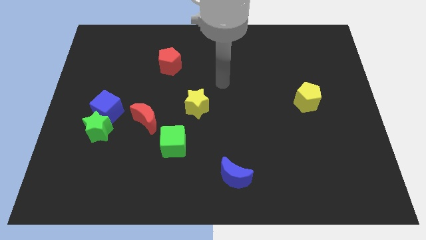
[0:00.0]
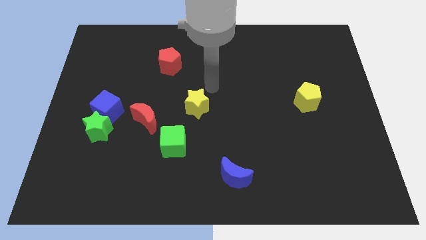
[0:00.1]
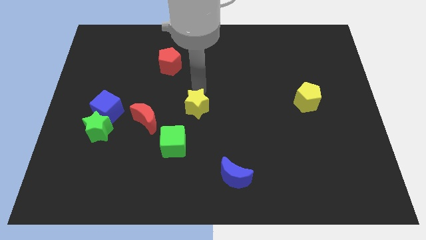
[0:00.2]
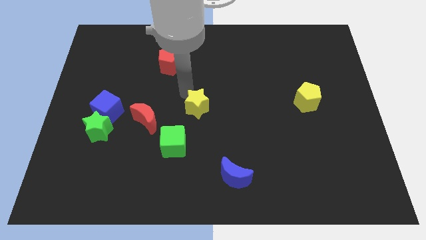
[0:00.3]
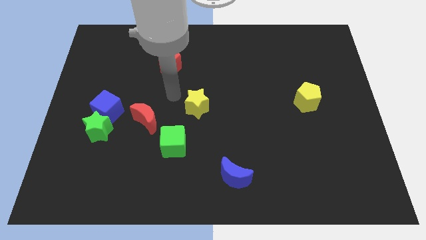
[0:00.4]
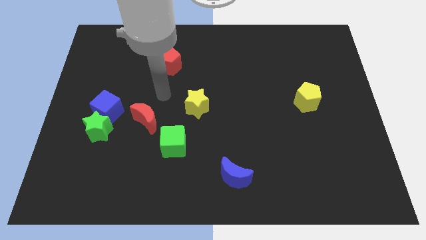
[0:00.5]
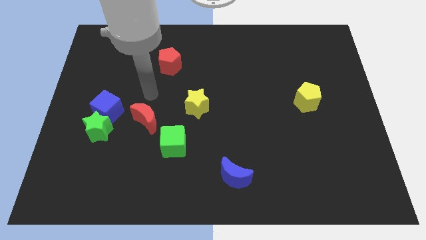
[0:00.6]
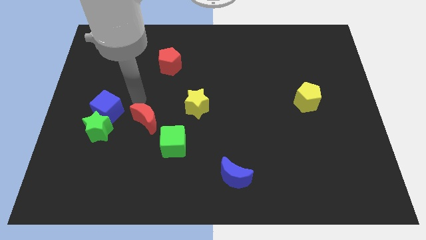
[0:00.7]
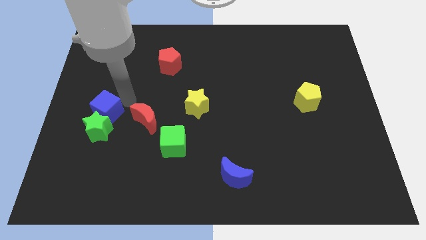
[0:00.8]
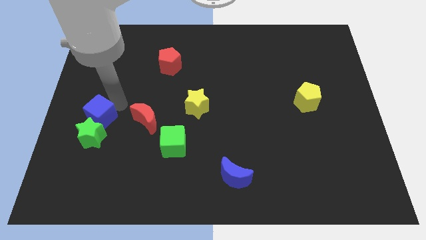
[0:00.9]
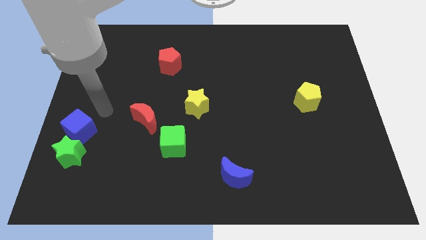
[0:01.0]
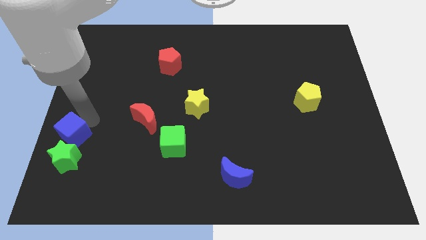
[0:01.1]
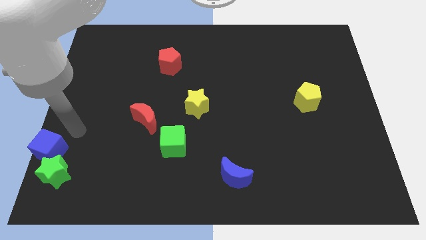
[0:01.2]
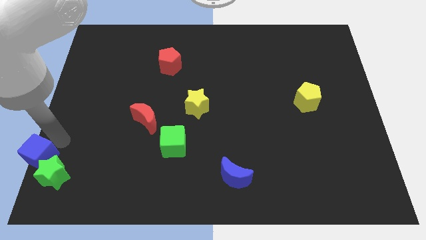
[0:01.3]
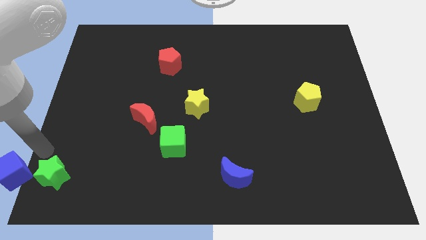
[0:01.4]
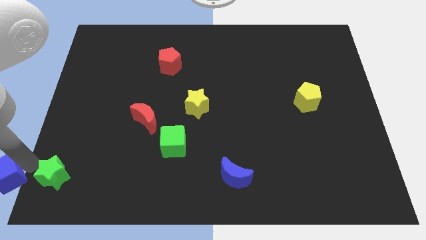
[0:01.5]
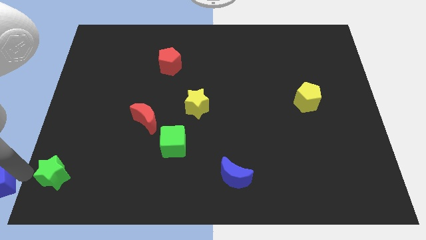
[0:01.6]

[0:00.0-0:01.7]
separate the green star from the blue cube

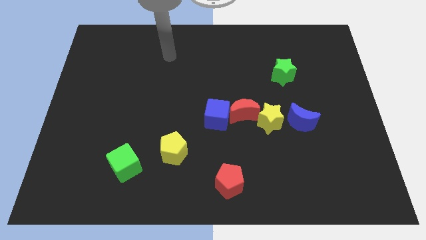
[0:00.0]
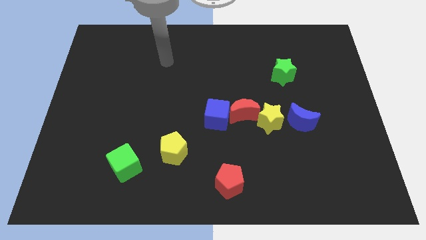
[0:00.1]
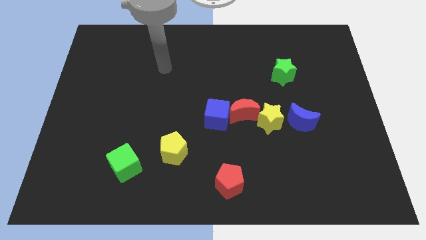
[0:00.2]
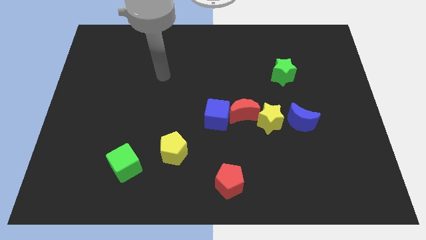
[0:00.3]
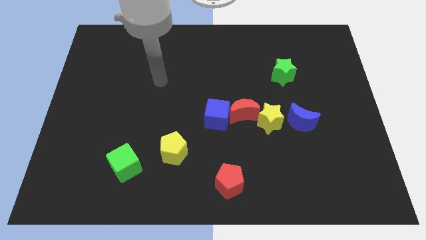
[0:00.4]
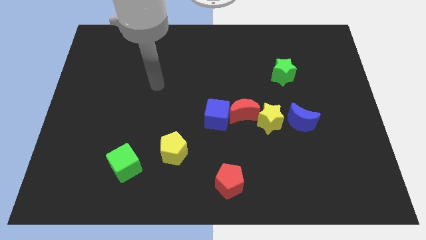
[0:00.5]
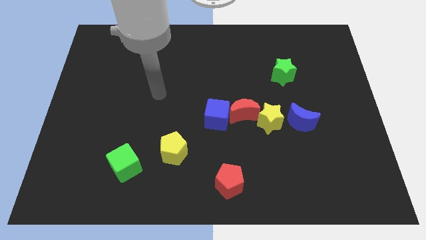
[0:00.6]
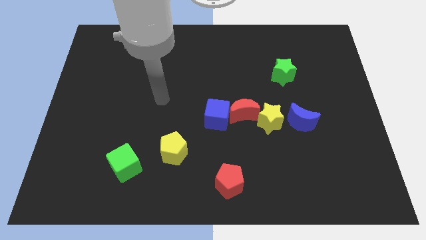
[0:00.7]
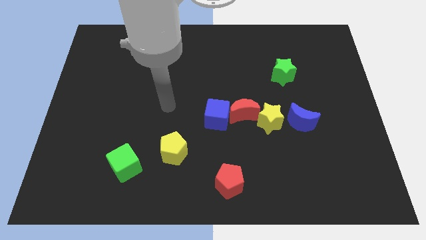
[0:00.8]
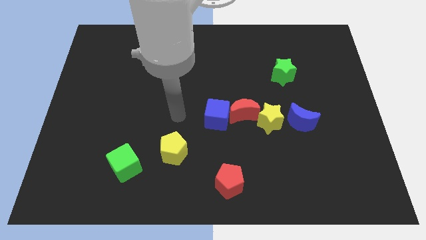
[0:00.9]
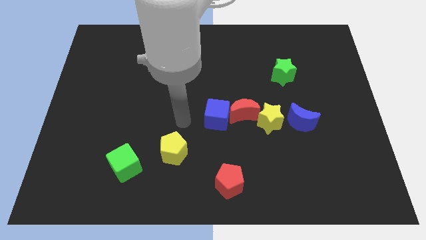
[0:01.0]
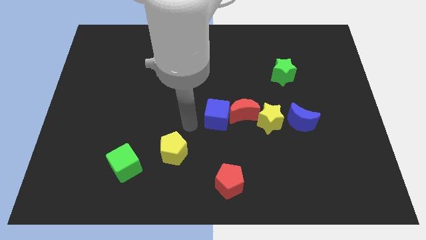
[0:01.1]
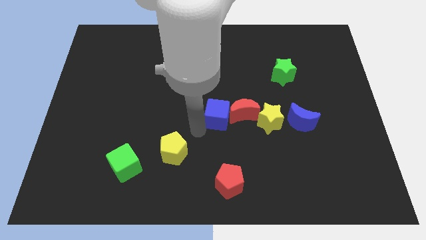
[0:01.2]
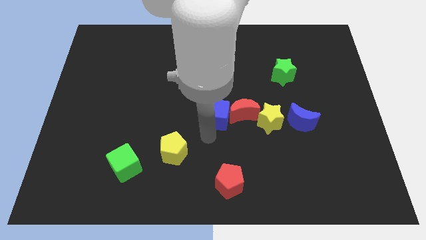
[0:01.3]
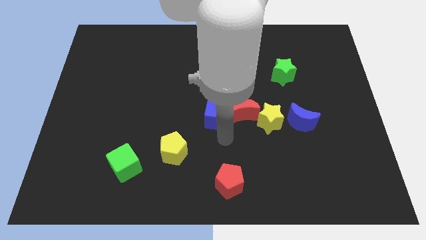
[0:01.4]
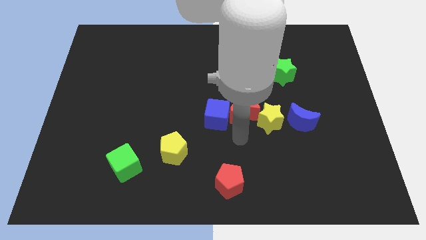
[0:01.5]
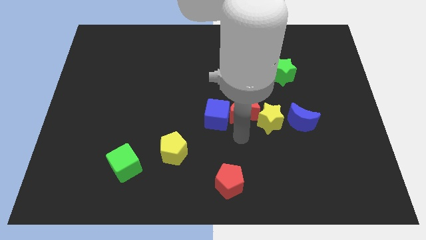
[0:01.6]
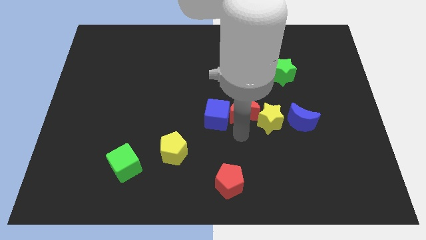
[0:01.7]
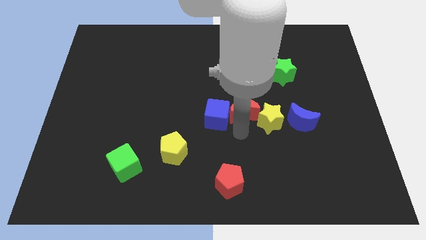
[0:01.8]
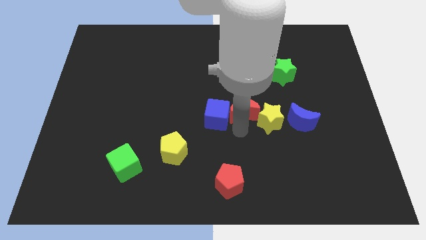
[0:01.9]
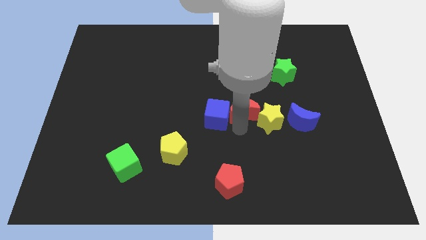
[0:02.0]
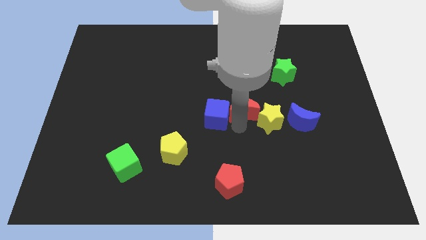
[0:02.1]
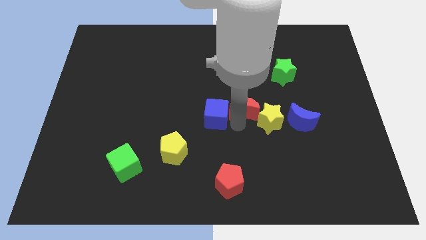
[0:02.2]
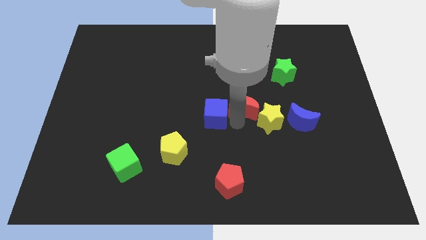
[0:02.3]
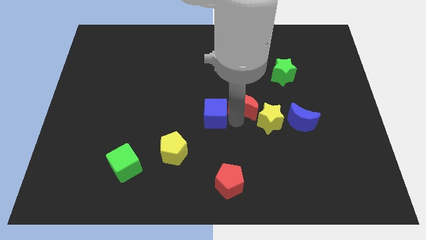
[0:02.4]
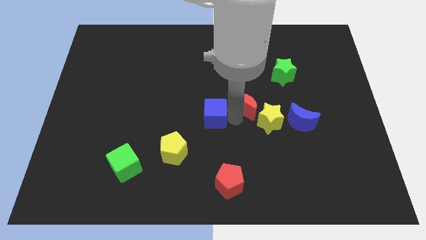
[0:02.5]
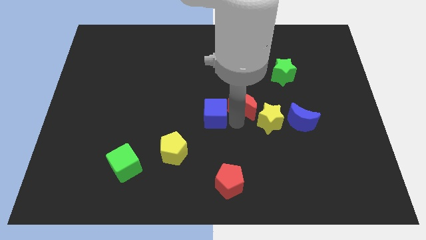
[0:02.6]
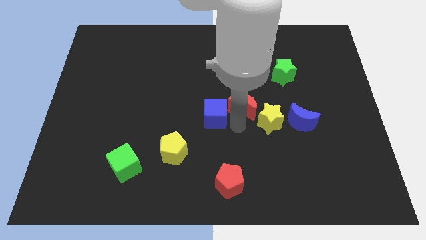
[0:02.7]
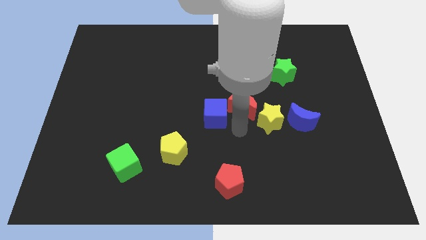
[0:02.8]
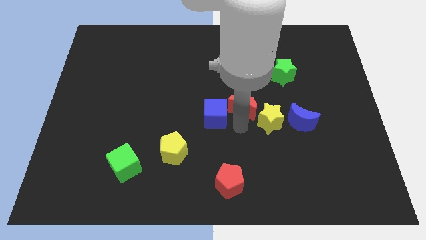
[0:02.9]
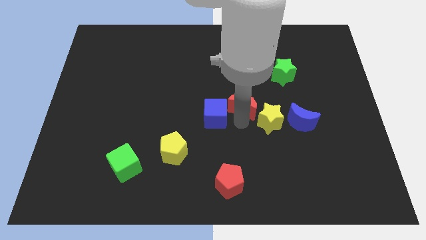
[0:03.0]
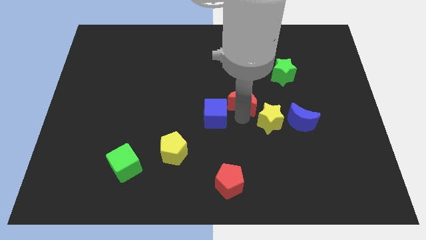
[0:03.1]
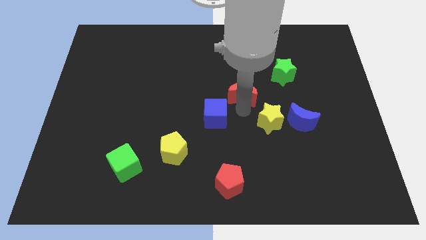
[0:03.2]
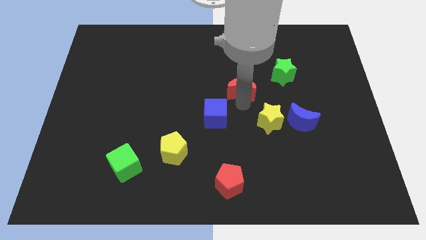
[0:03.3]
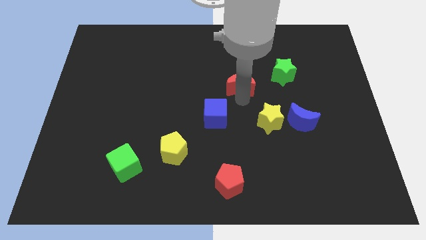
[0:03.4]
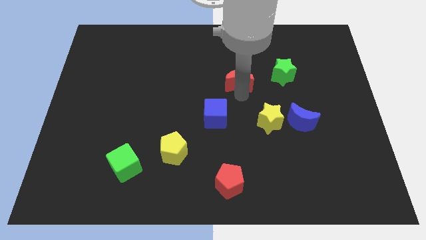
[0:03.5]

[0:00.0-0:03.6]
separate the red moon from the yellow star and blue cube

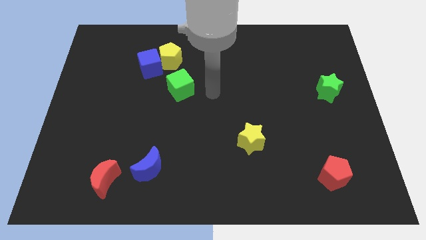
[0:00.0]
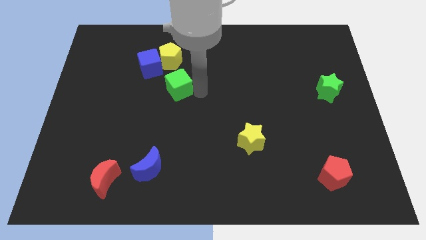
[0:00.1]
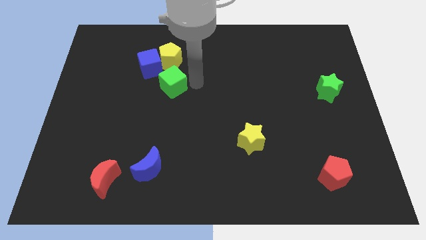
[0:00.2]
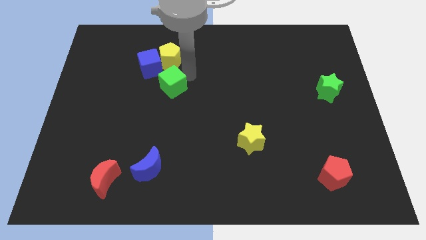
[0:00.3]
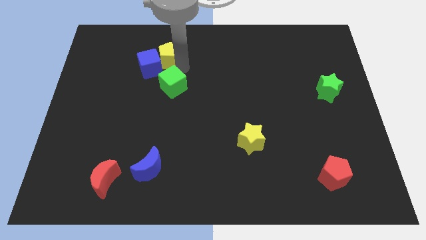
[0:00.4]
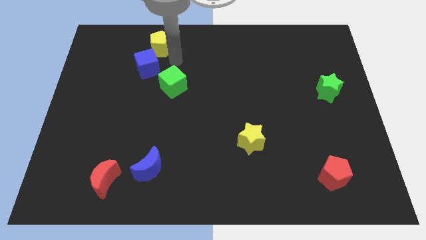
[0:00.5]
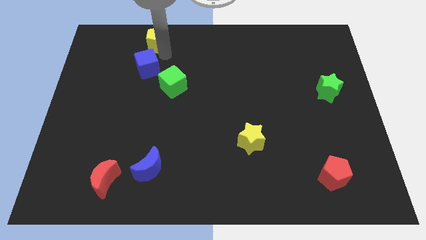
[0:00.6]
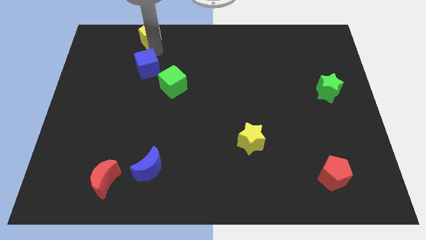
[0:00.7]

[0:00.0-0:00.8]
pull the blue cube apart from the yellow pentagon

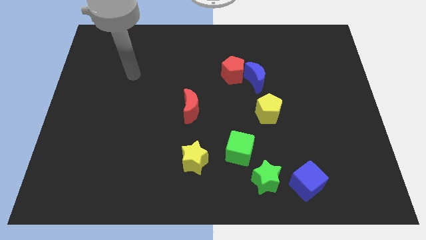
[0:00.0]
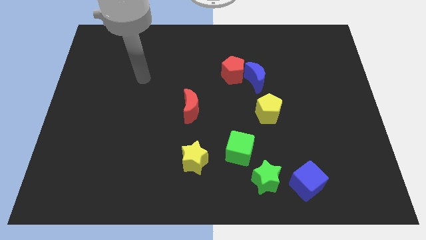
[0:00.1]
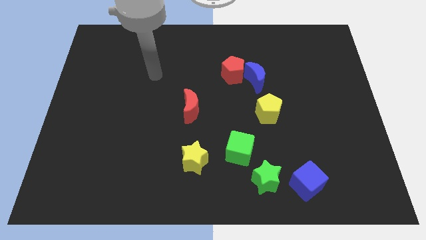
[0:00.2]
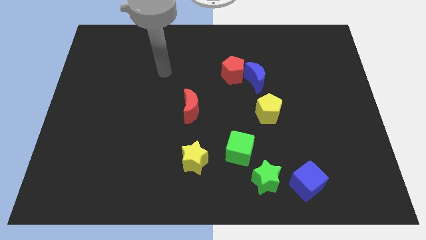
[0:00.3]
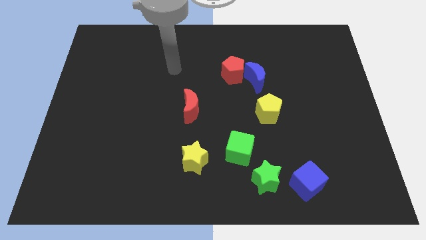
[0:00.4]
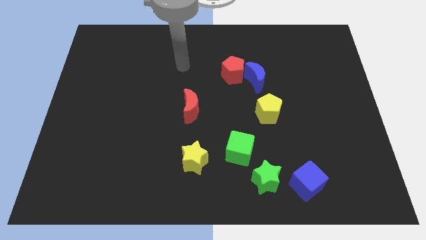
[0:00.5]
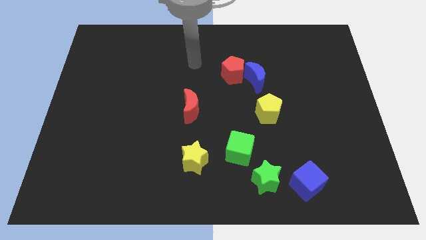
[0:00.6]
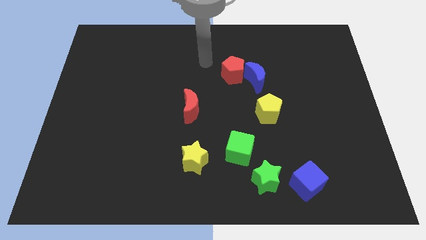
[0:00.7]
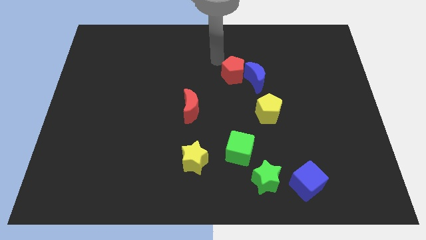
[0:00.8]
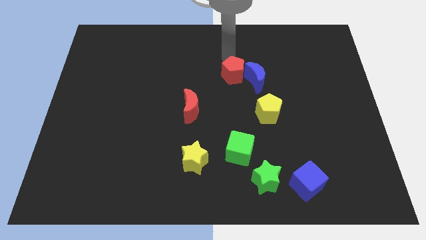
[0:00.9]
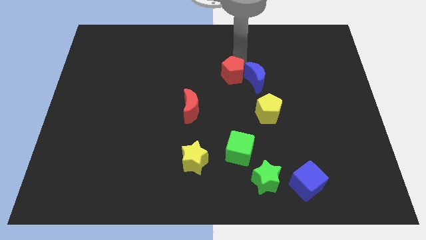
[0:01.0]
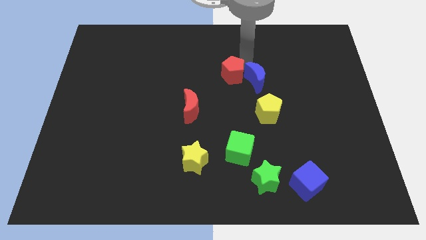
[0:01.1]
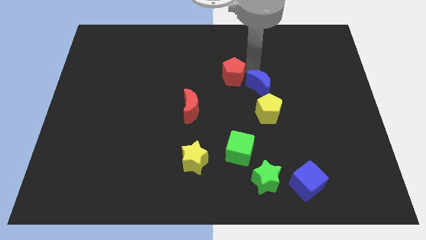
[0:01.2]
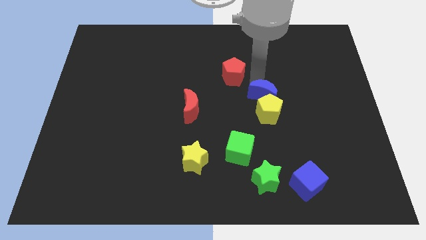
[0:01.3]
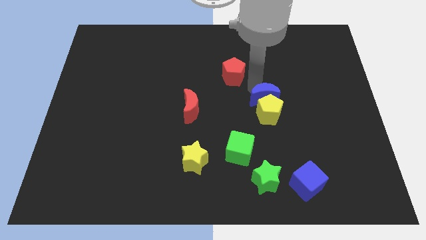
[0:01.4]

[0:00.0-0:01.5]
move the red pentagon away from the blue moon

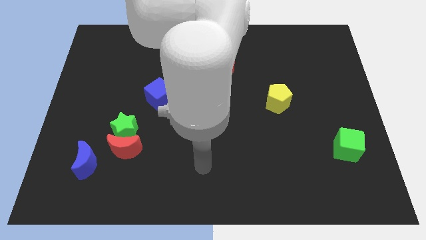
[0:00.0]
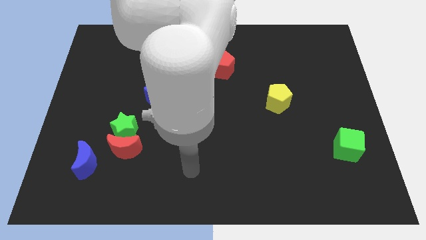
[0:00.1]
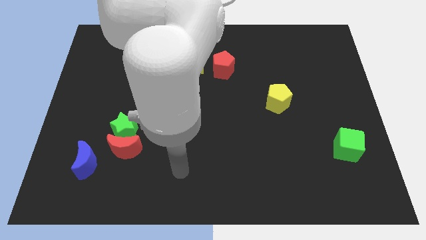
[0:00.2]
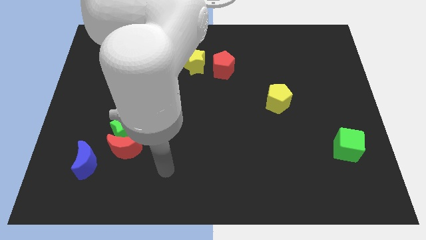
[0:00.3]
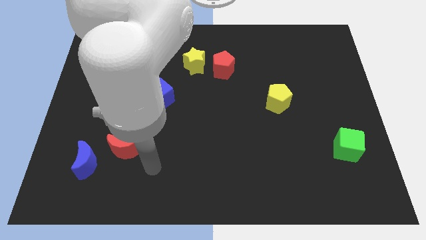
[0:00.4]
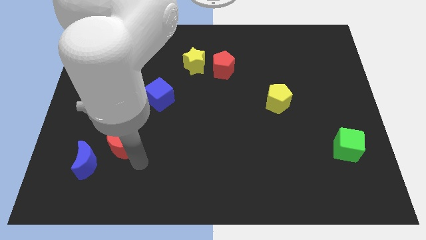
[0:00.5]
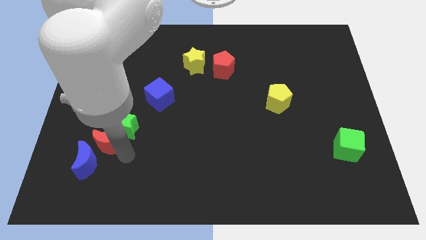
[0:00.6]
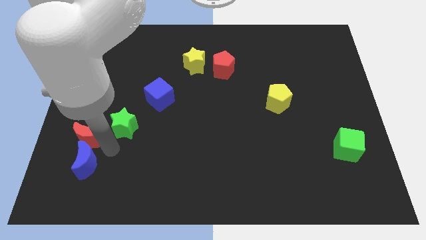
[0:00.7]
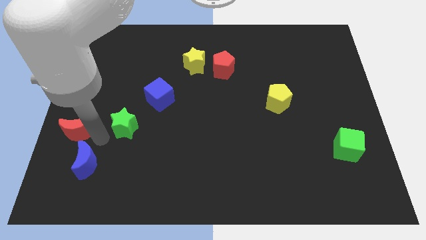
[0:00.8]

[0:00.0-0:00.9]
move the green star away from the red moon

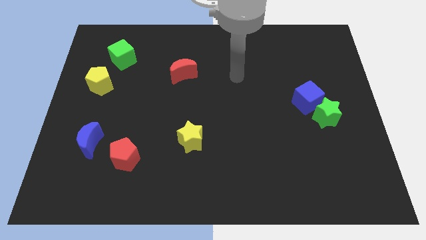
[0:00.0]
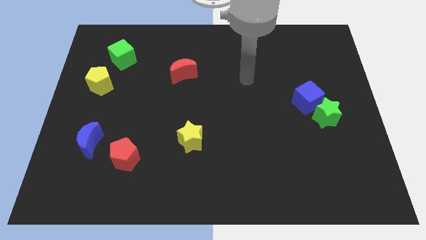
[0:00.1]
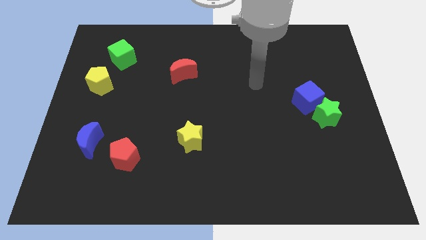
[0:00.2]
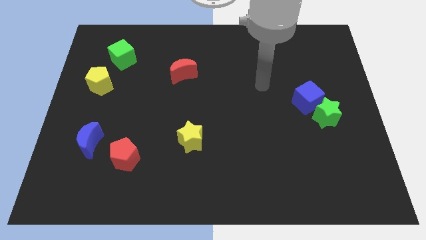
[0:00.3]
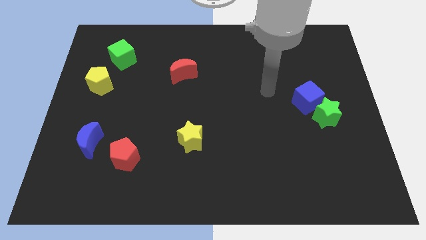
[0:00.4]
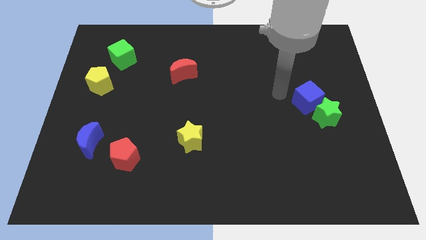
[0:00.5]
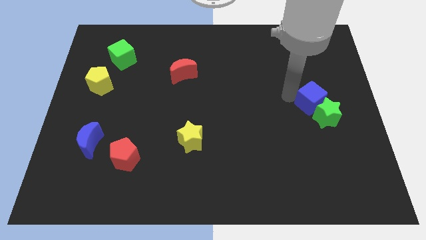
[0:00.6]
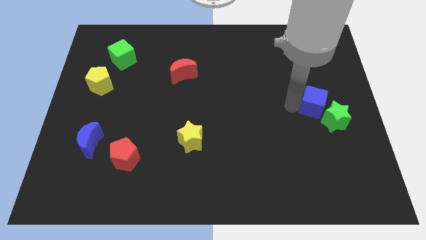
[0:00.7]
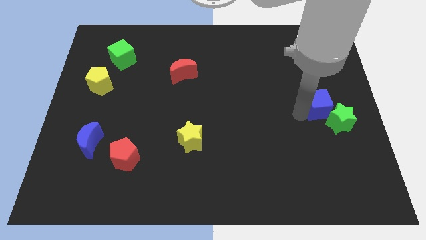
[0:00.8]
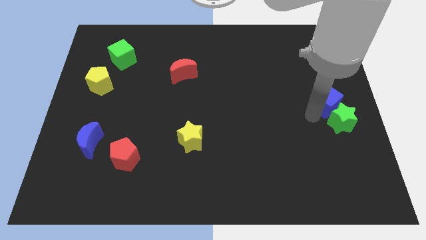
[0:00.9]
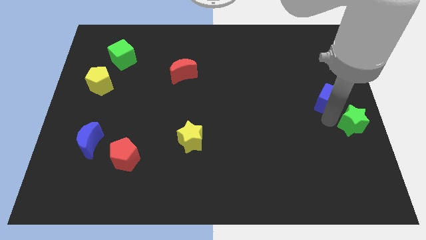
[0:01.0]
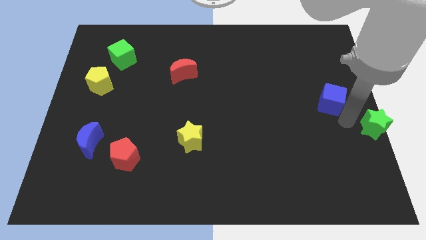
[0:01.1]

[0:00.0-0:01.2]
pull the blue cube apart from the green star
